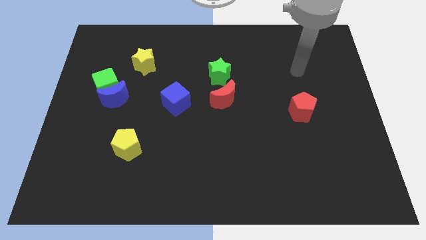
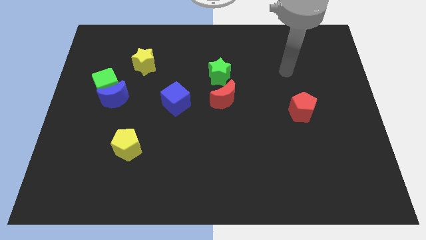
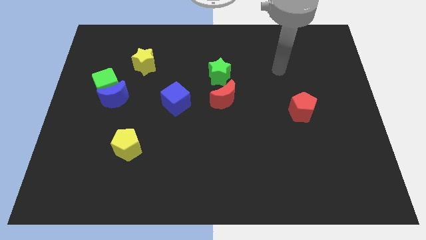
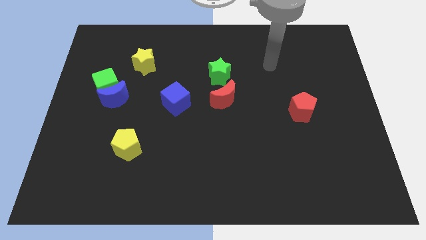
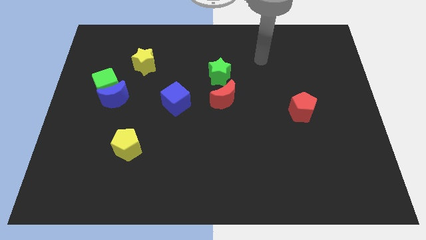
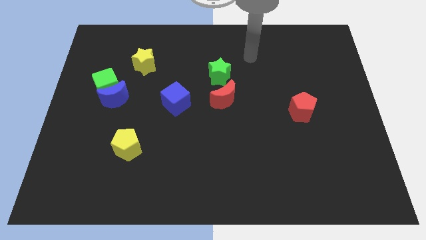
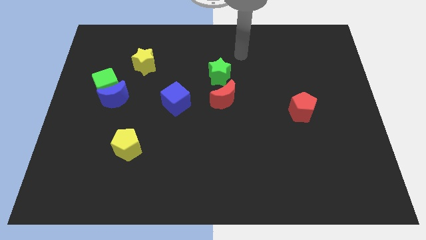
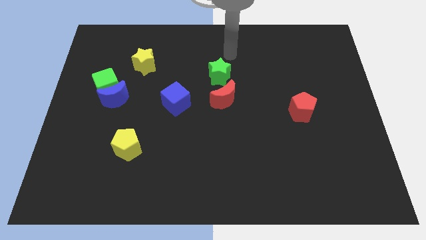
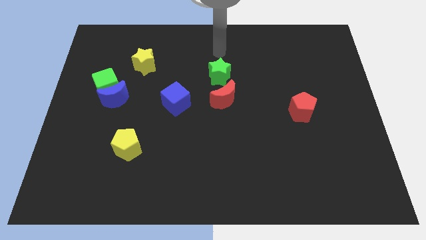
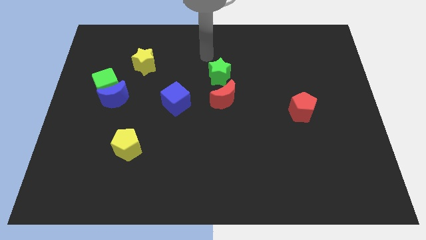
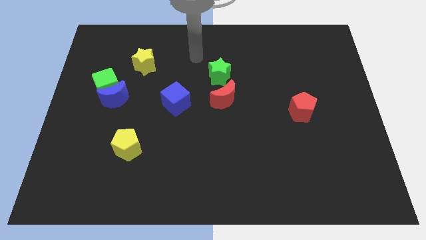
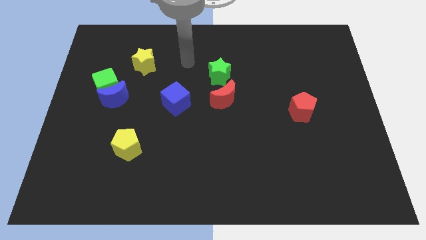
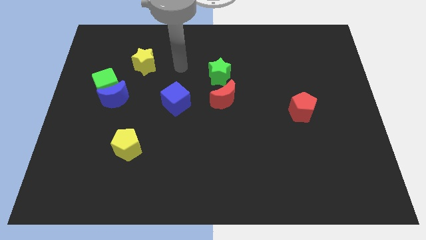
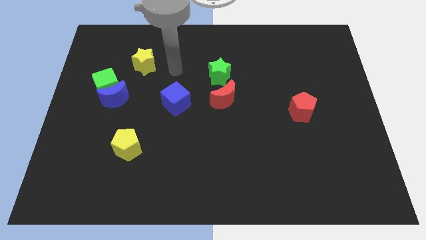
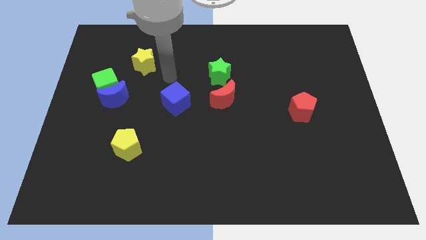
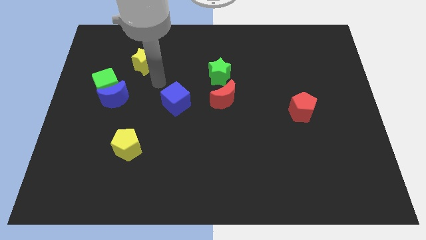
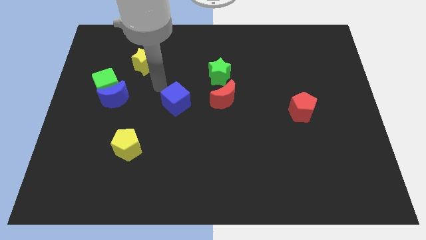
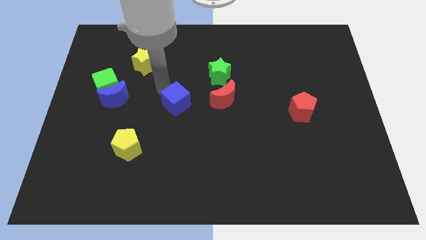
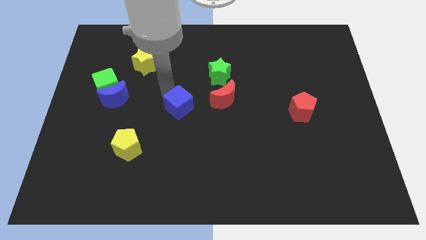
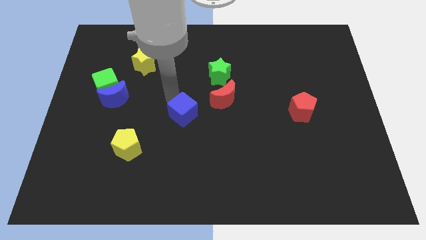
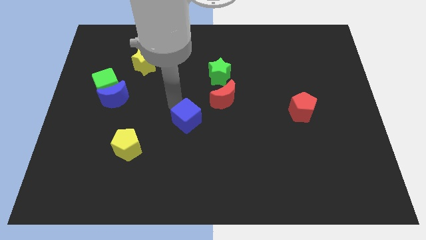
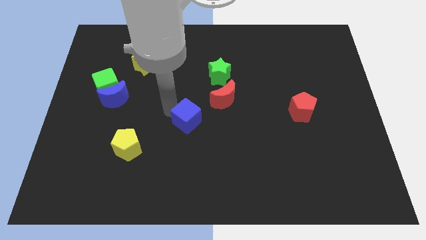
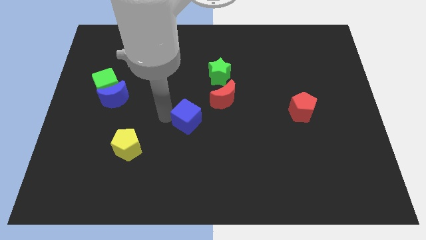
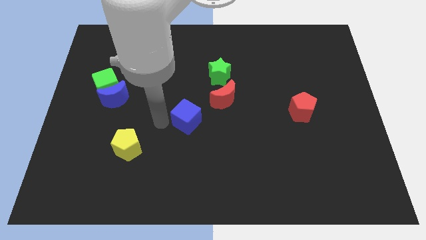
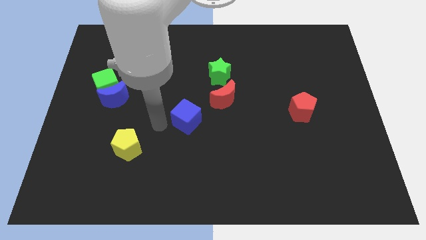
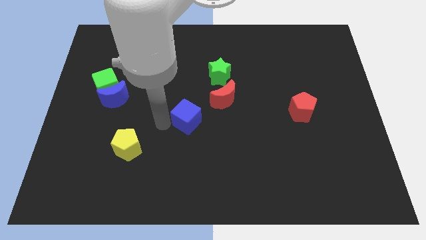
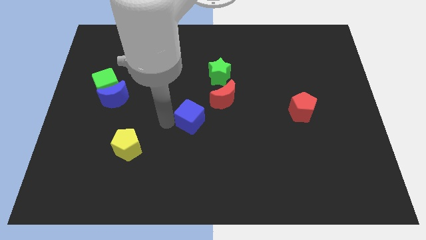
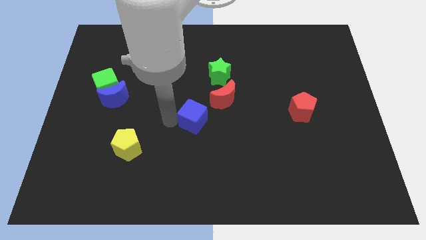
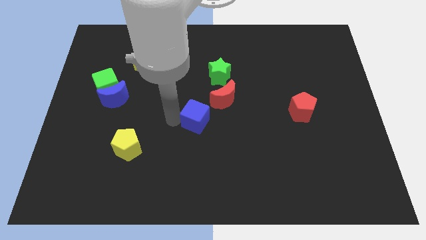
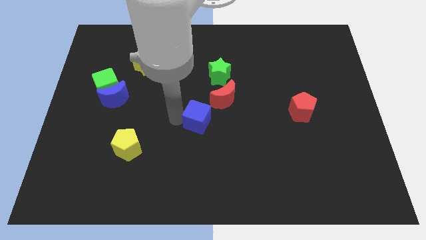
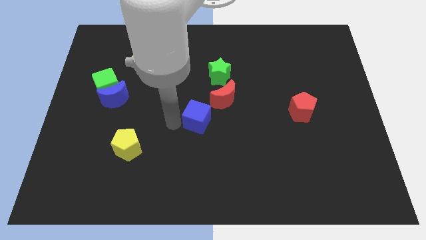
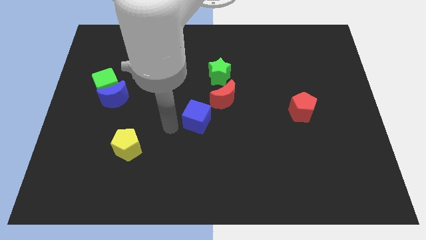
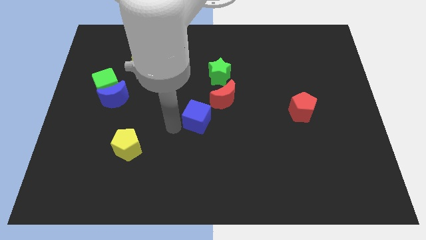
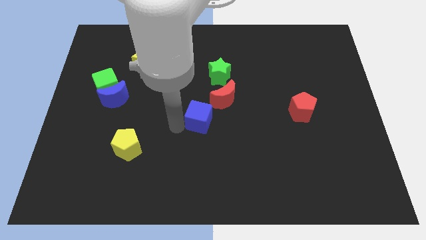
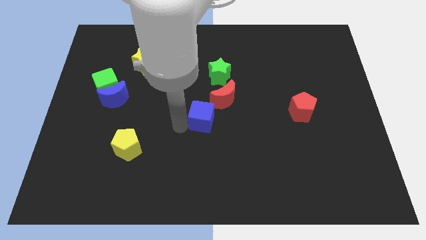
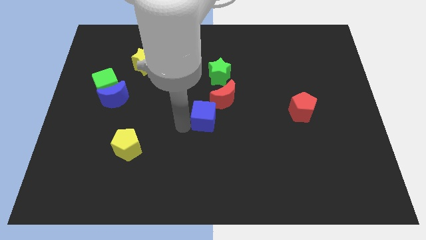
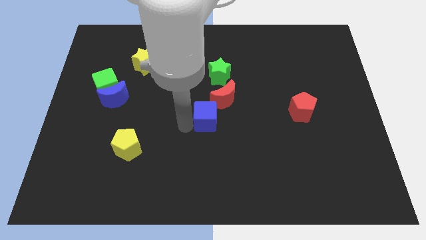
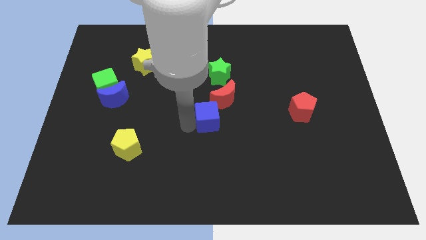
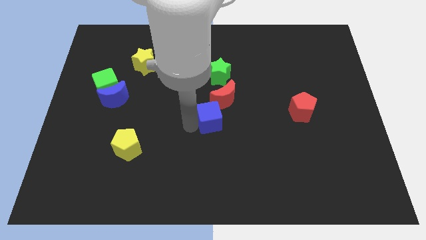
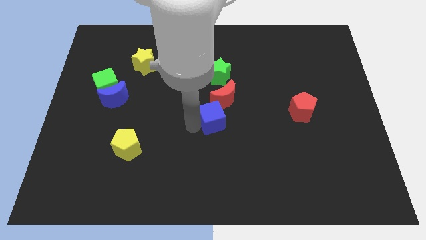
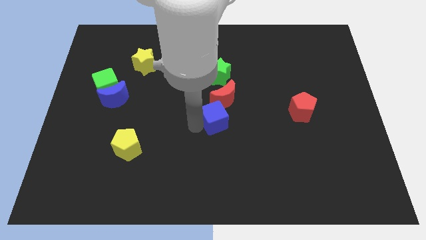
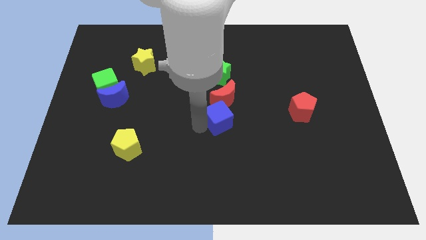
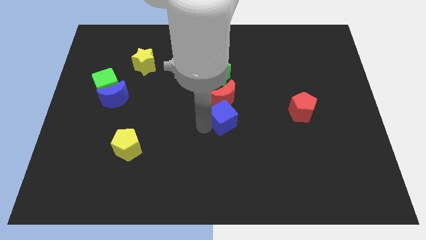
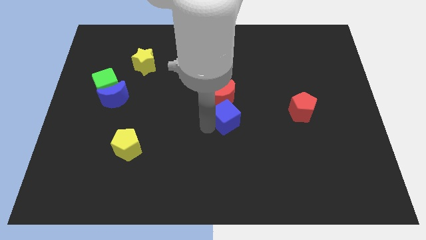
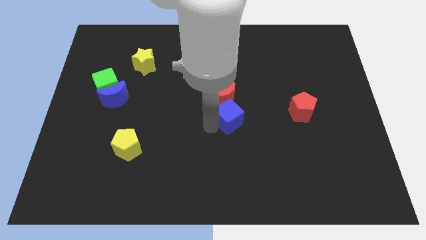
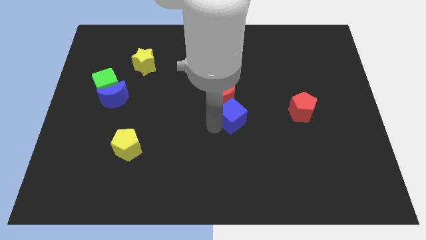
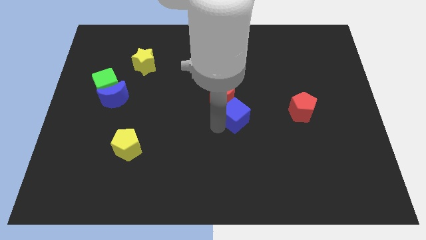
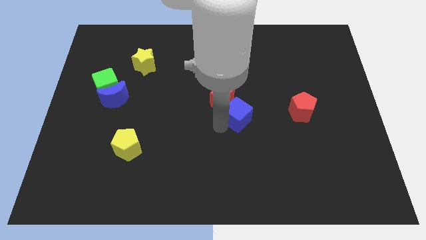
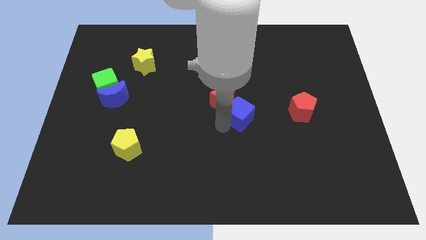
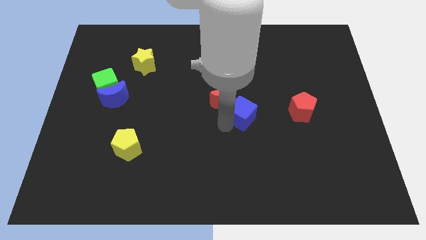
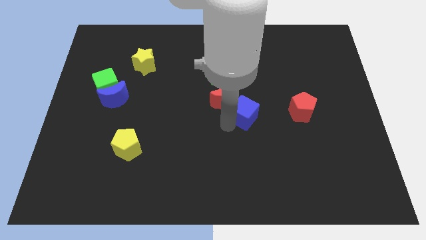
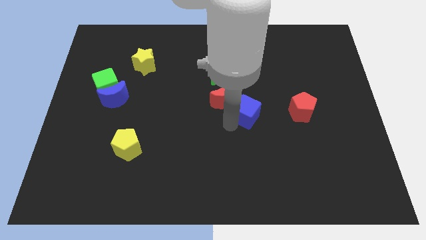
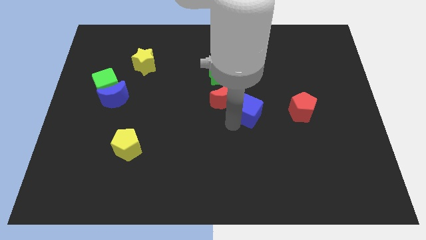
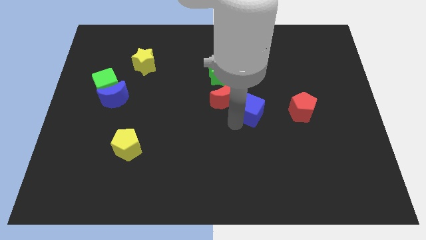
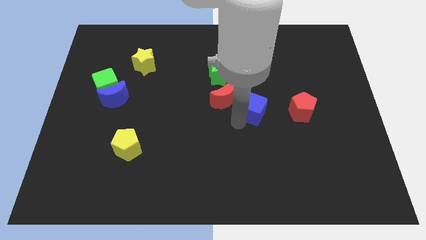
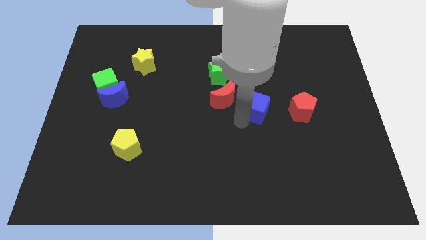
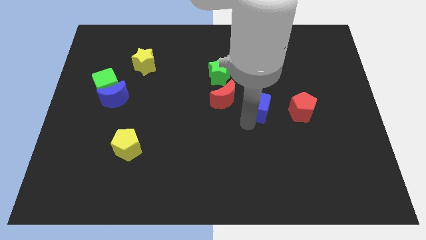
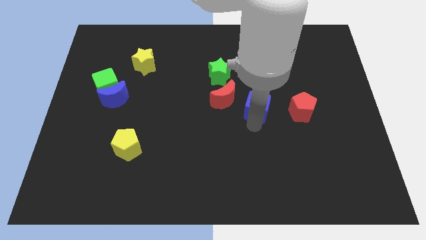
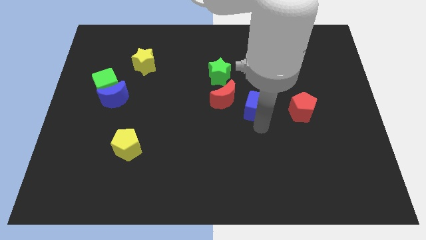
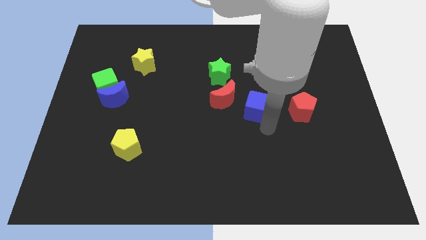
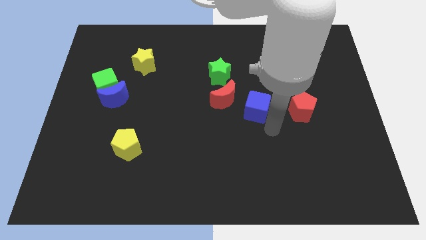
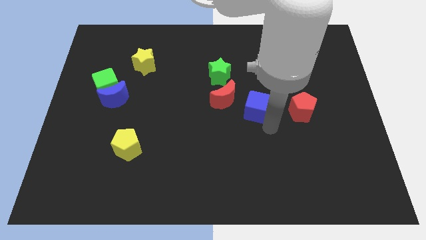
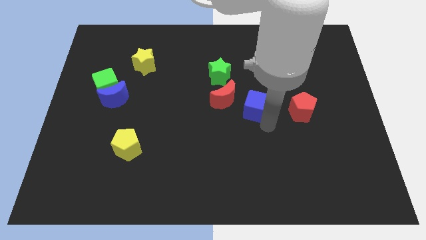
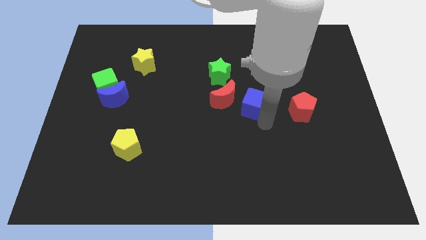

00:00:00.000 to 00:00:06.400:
move the blue cube diagonally down and to the right of the green star

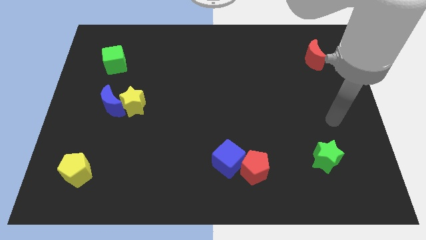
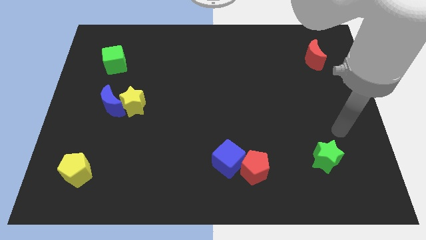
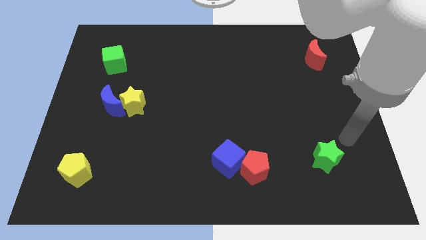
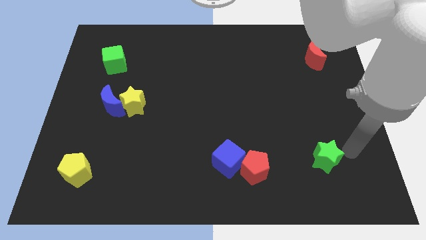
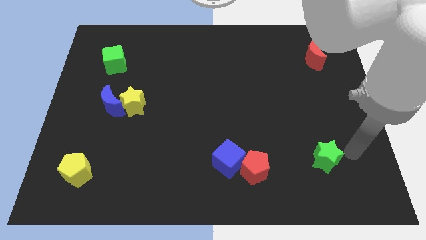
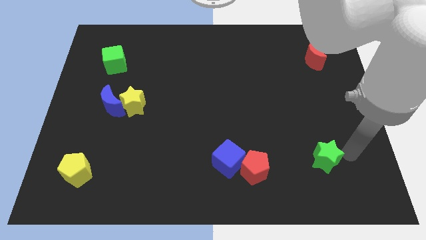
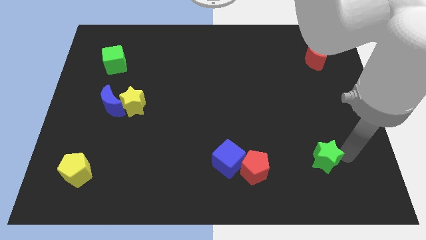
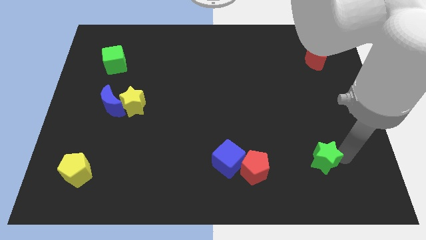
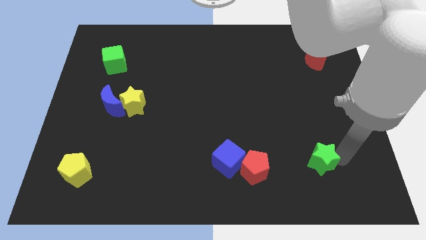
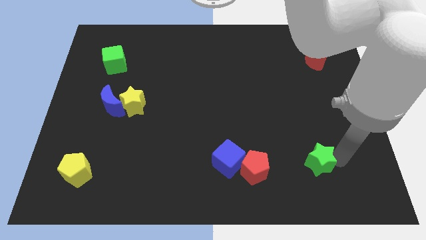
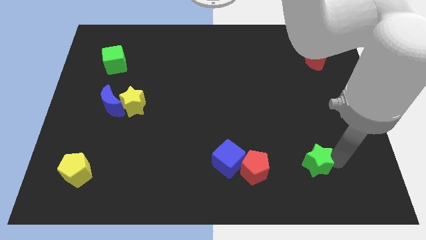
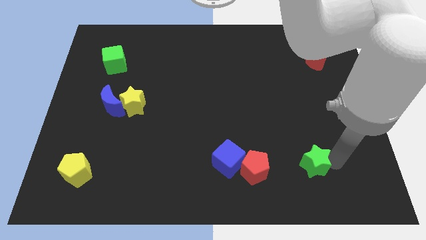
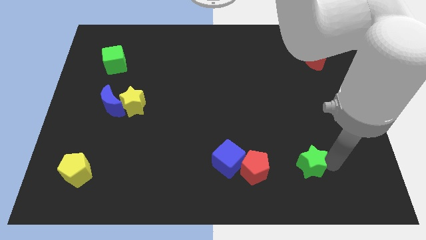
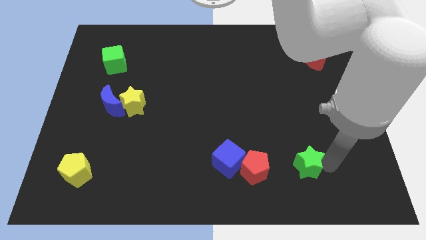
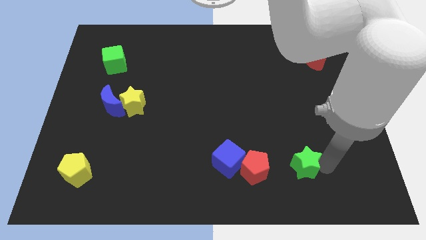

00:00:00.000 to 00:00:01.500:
put the green star to the right of the blue cube
